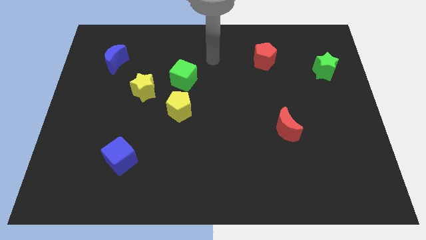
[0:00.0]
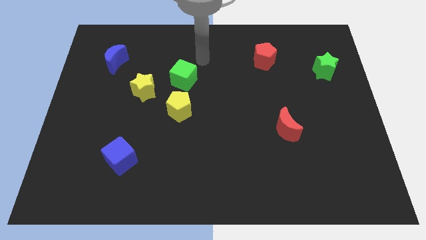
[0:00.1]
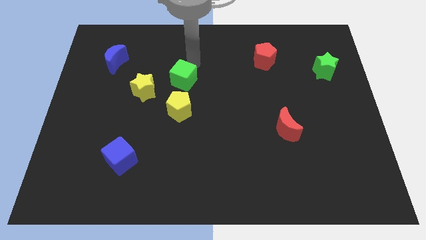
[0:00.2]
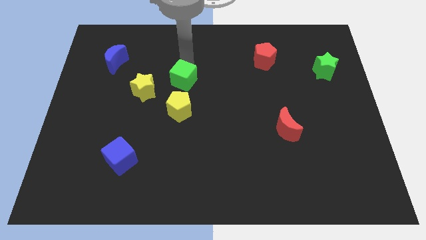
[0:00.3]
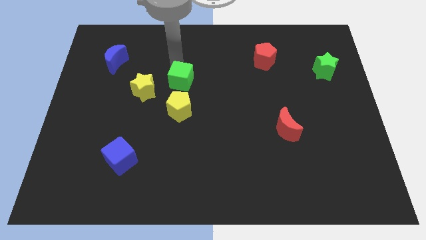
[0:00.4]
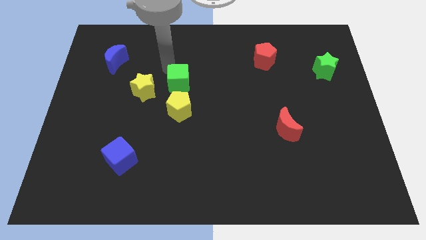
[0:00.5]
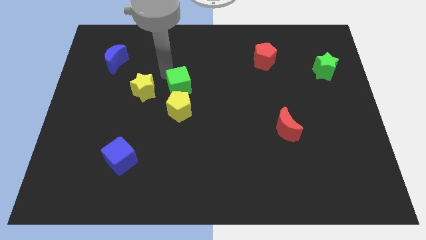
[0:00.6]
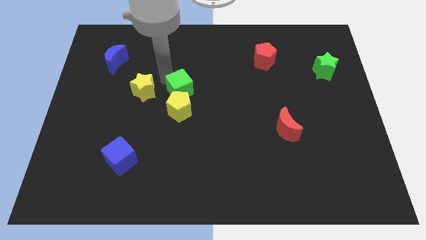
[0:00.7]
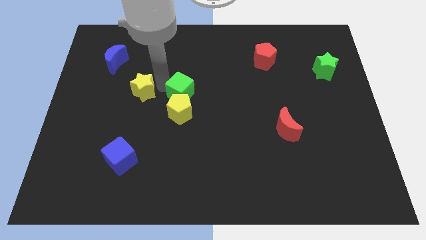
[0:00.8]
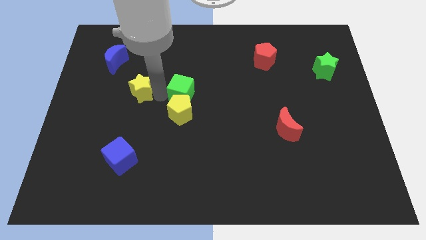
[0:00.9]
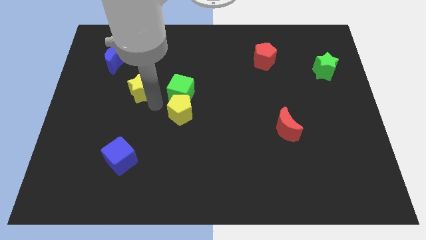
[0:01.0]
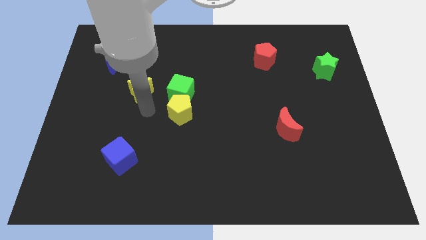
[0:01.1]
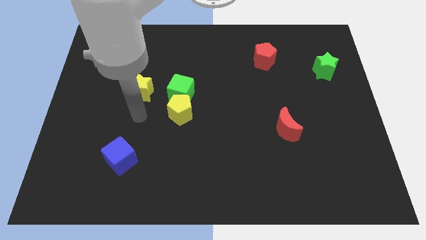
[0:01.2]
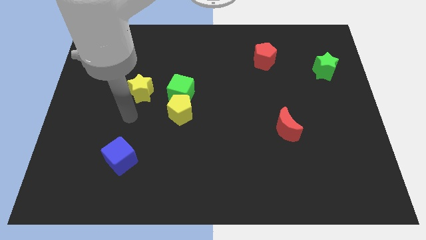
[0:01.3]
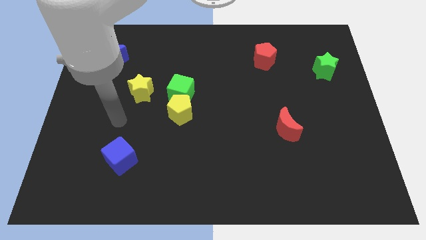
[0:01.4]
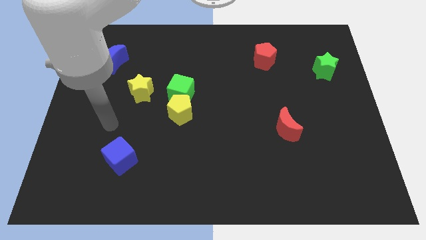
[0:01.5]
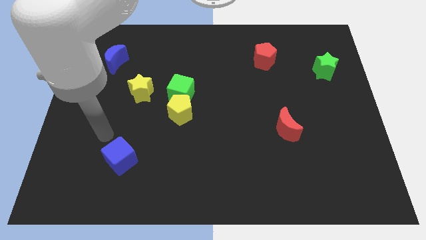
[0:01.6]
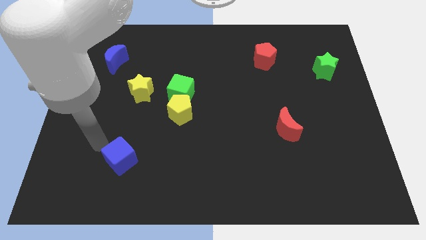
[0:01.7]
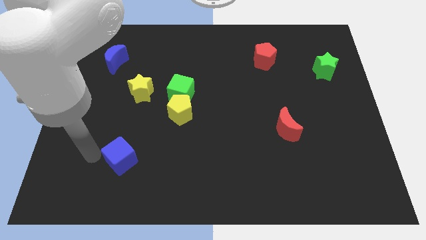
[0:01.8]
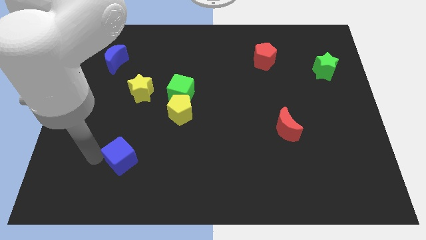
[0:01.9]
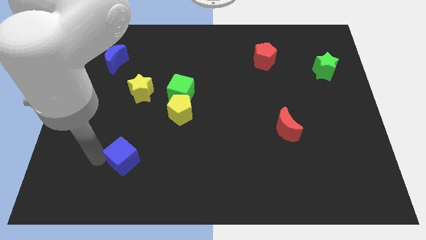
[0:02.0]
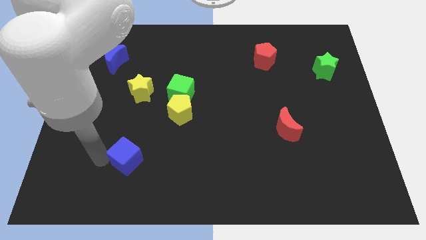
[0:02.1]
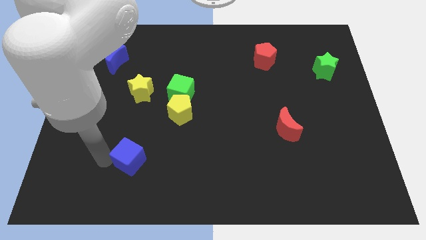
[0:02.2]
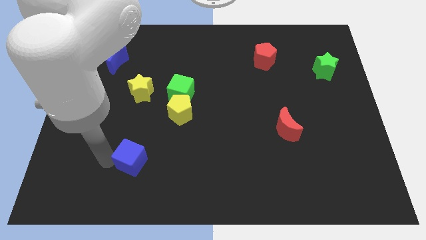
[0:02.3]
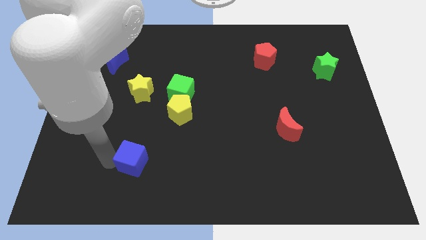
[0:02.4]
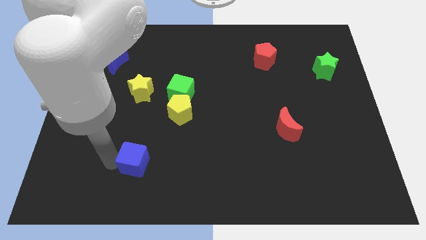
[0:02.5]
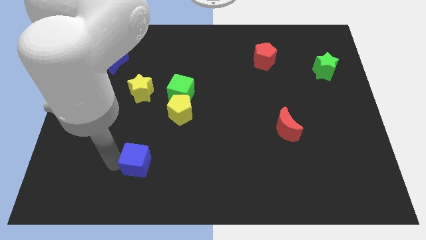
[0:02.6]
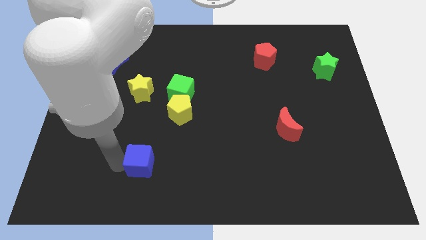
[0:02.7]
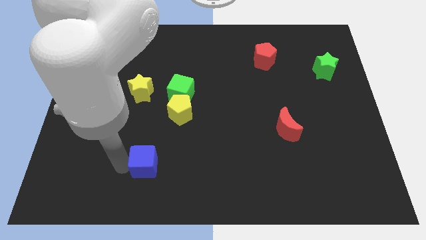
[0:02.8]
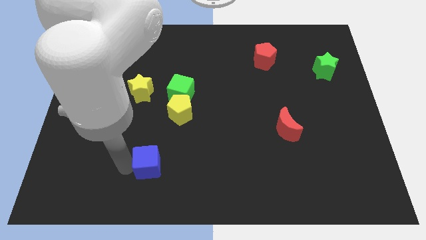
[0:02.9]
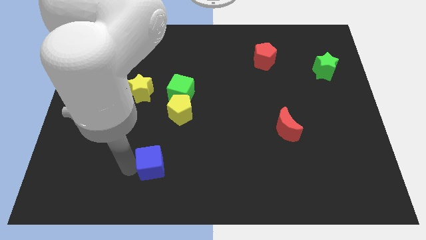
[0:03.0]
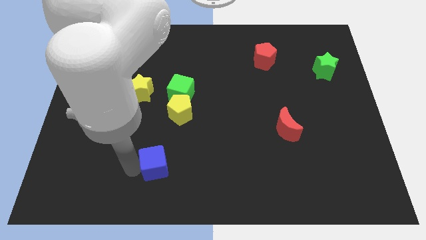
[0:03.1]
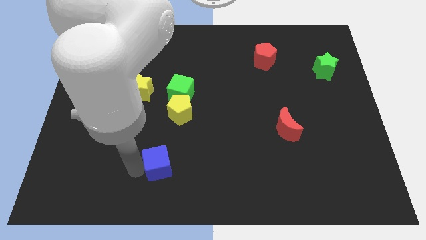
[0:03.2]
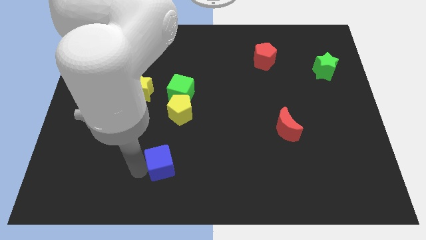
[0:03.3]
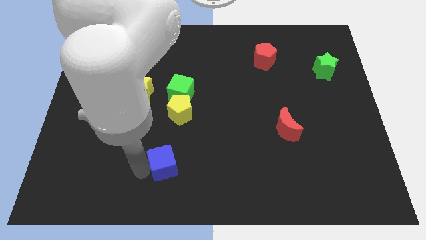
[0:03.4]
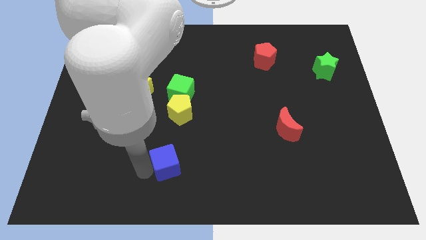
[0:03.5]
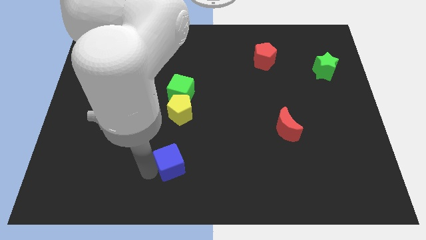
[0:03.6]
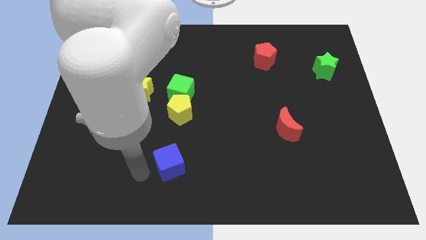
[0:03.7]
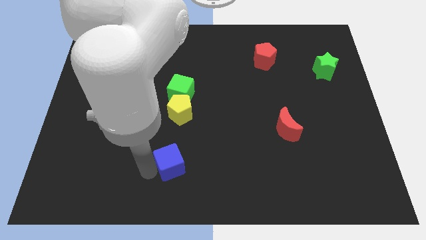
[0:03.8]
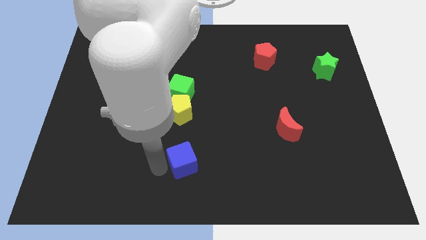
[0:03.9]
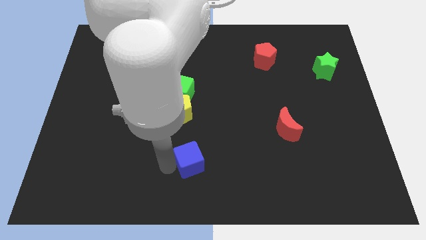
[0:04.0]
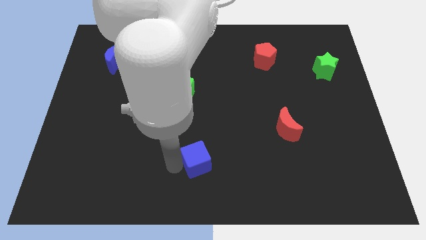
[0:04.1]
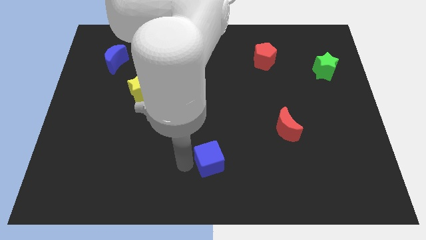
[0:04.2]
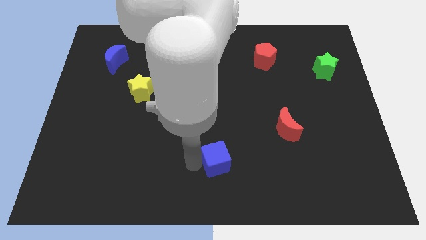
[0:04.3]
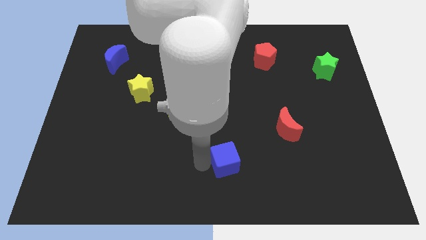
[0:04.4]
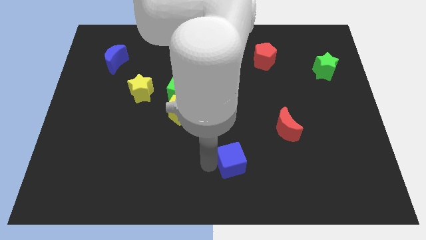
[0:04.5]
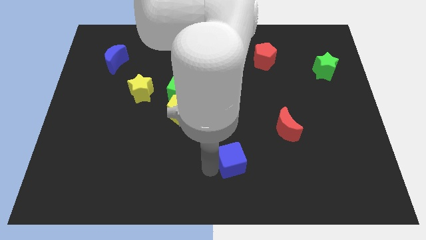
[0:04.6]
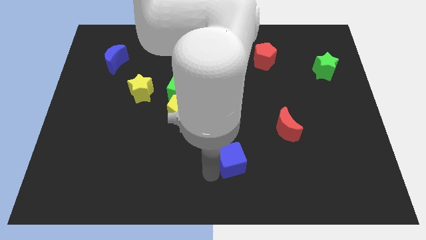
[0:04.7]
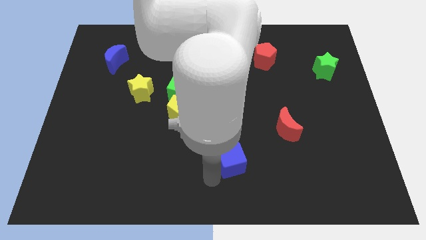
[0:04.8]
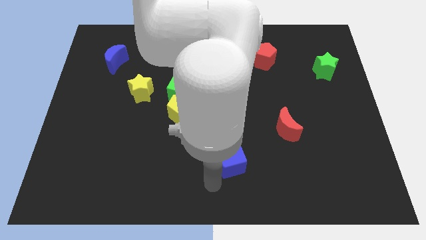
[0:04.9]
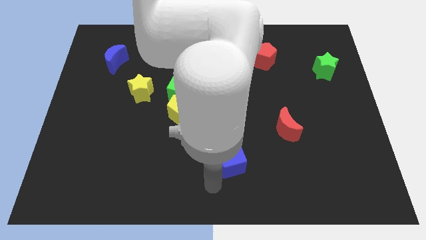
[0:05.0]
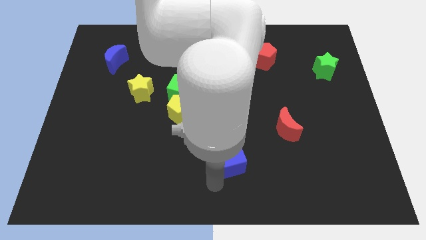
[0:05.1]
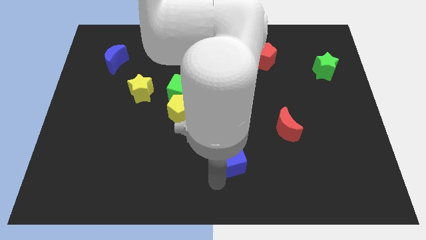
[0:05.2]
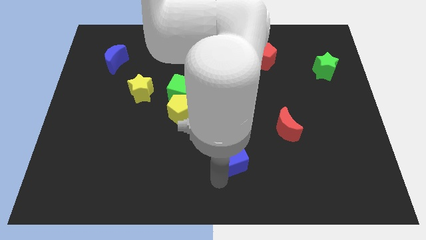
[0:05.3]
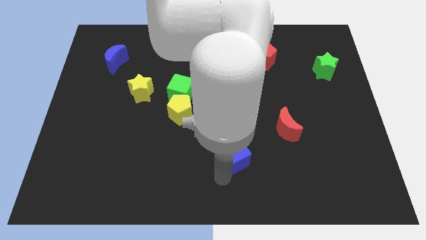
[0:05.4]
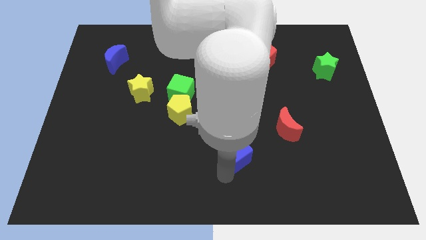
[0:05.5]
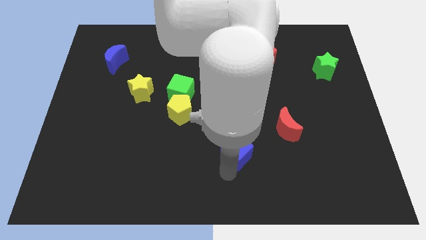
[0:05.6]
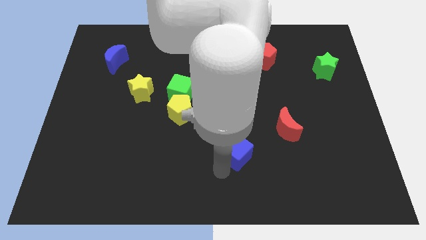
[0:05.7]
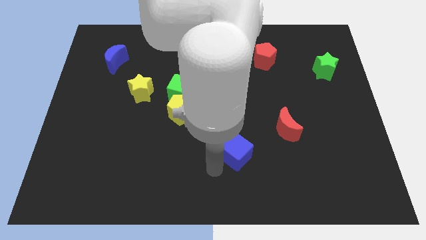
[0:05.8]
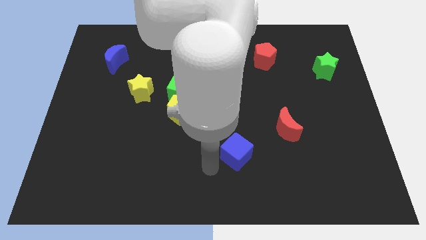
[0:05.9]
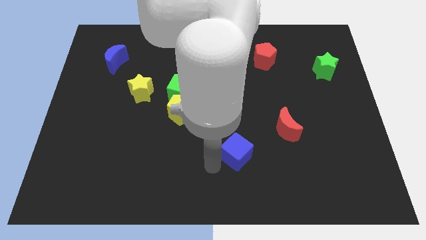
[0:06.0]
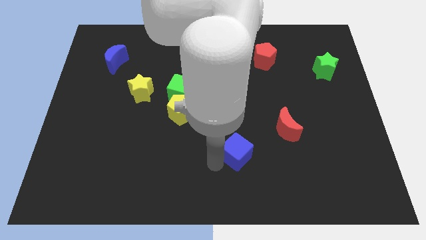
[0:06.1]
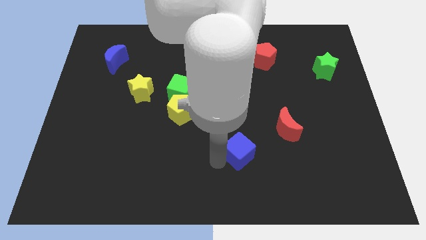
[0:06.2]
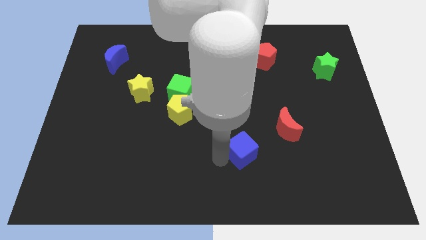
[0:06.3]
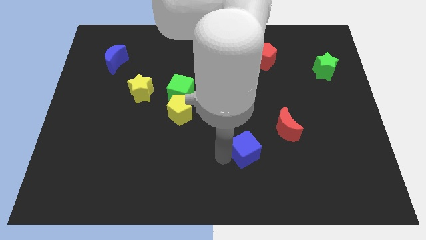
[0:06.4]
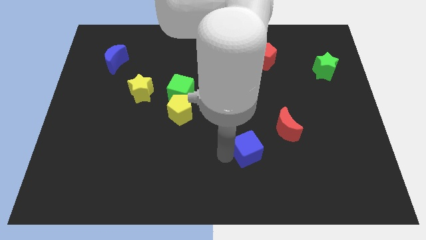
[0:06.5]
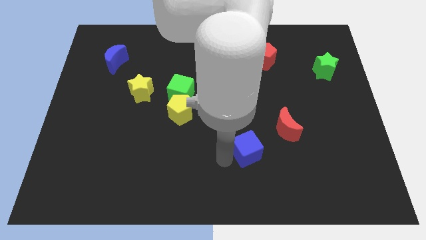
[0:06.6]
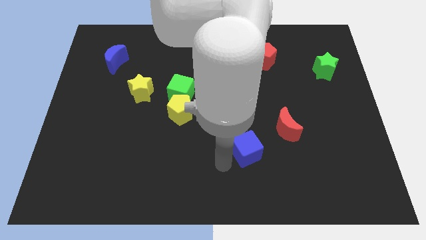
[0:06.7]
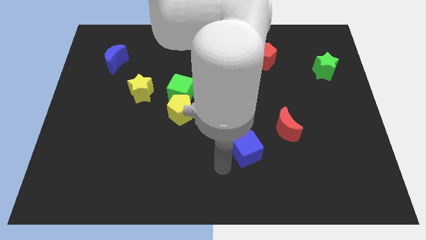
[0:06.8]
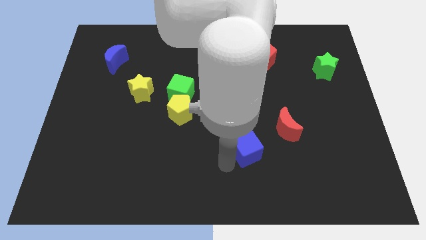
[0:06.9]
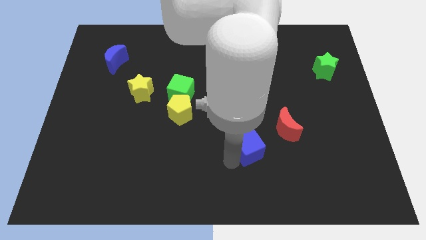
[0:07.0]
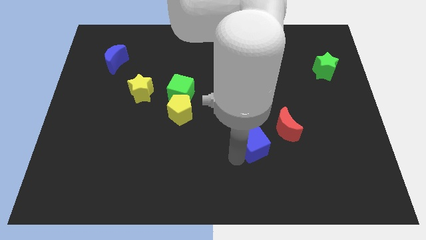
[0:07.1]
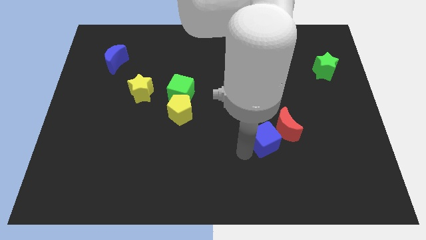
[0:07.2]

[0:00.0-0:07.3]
push the blue cube towards the red moon
